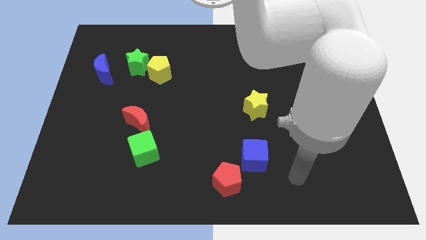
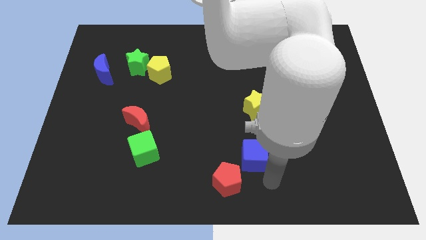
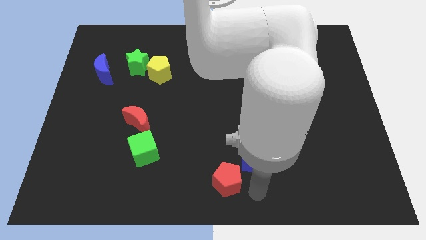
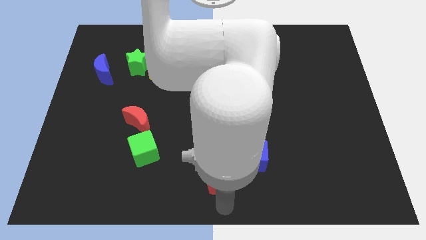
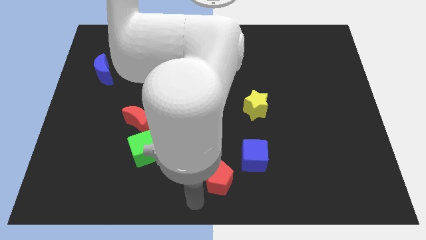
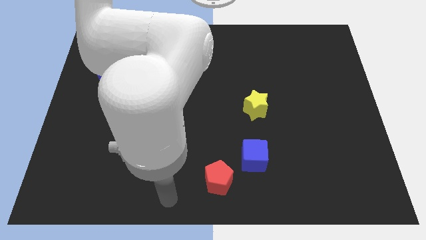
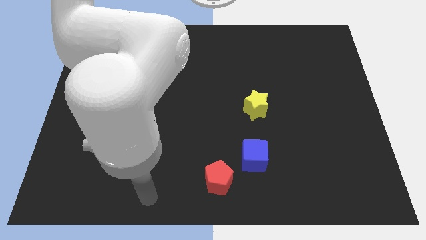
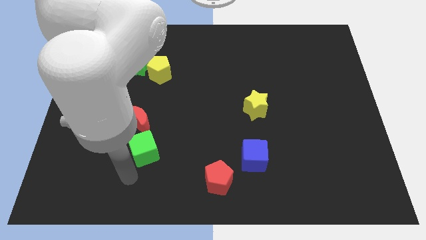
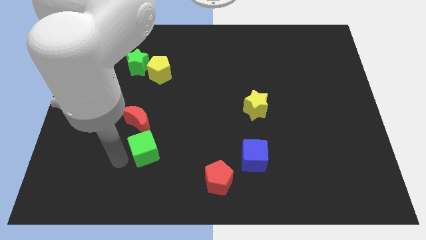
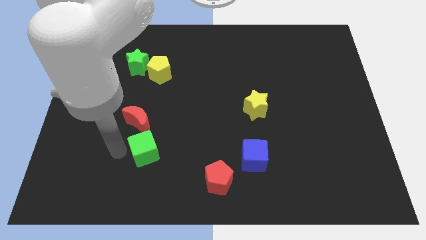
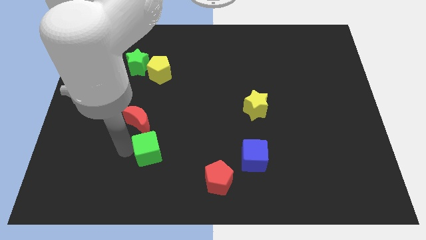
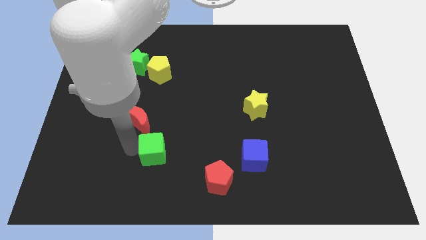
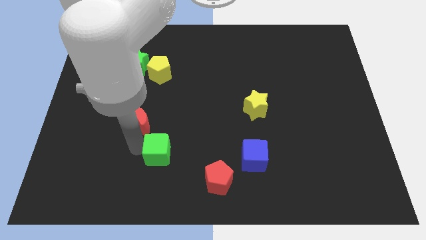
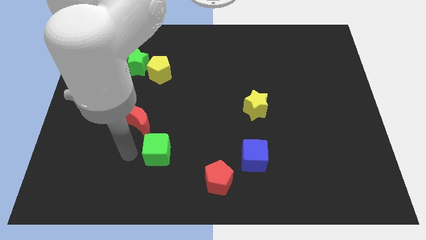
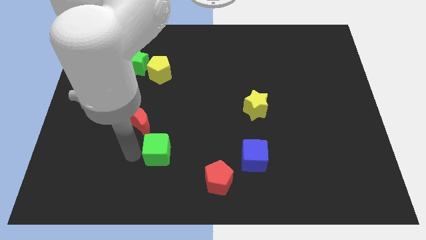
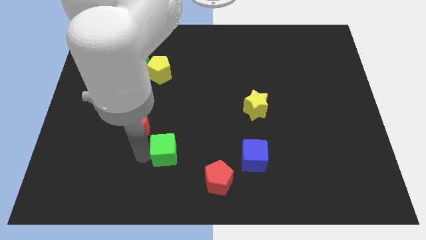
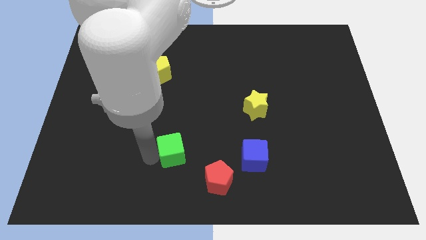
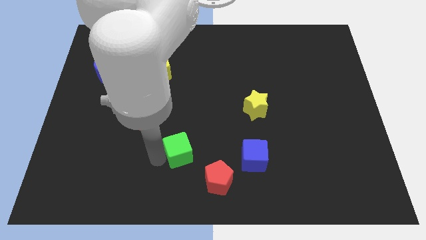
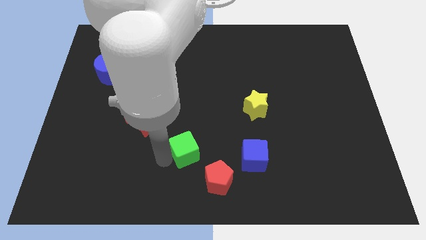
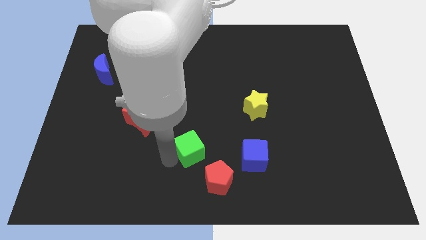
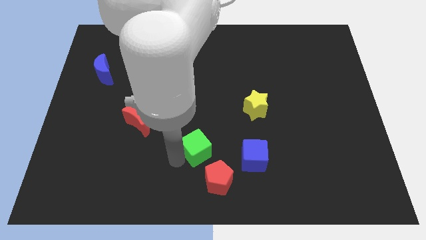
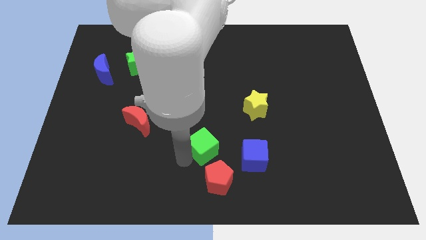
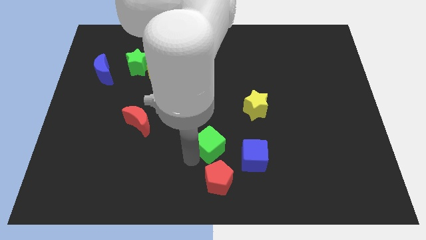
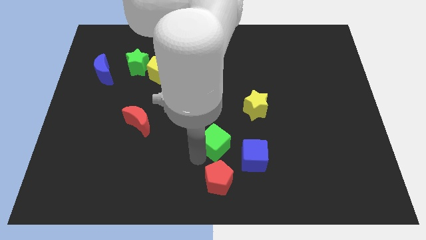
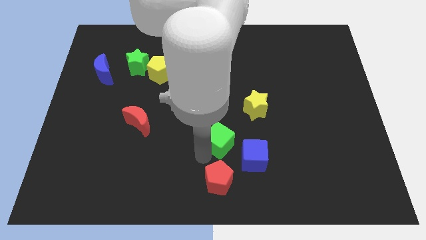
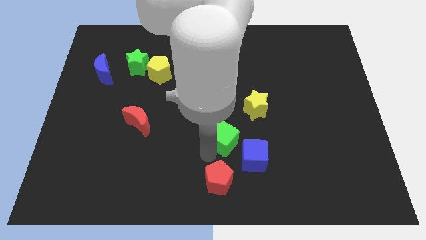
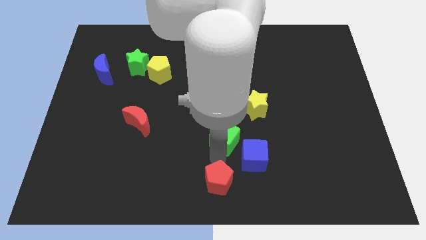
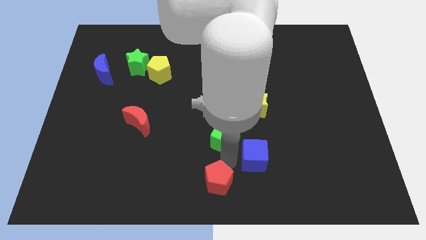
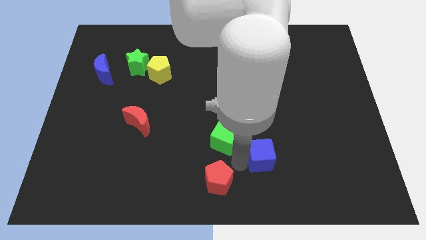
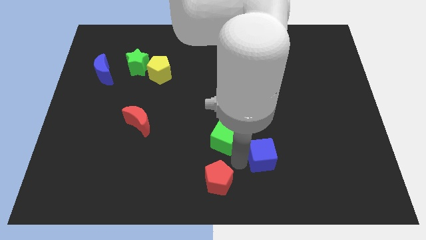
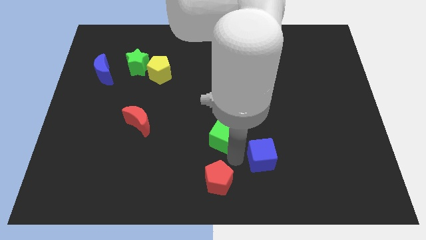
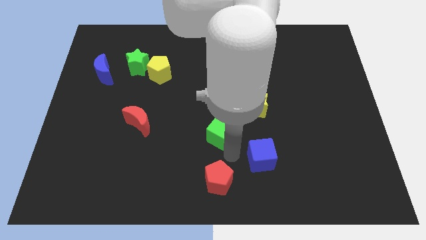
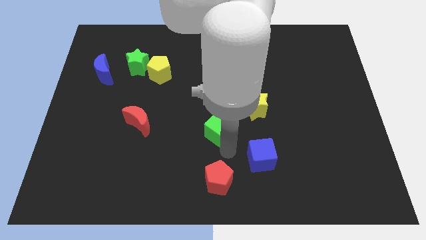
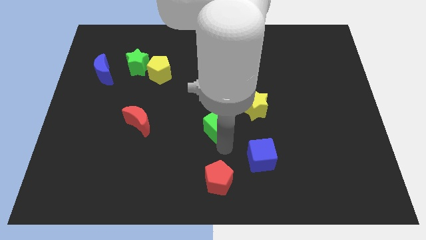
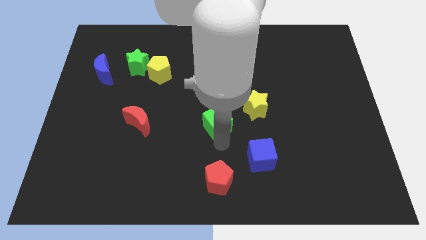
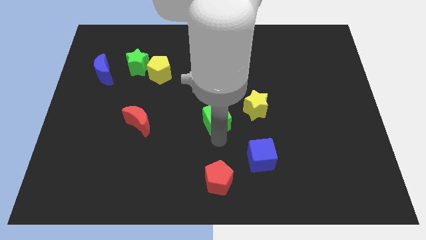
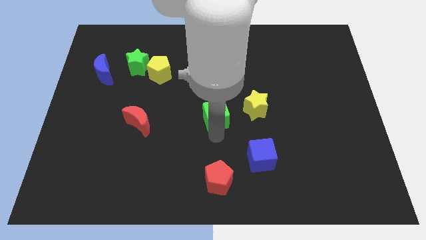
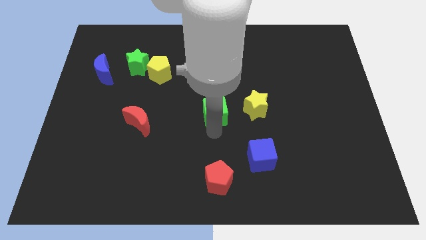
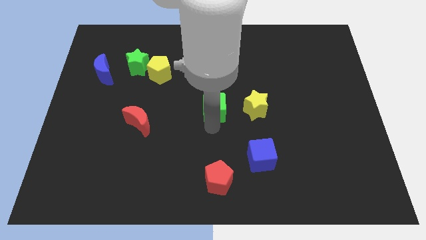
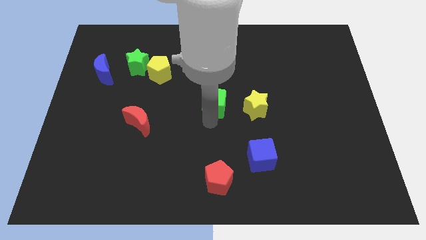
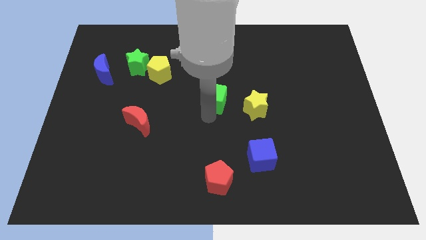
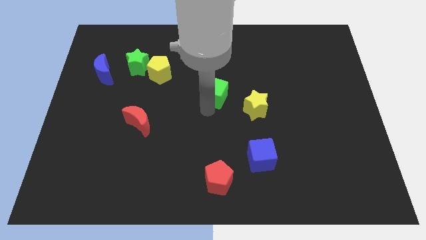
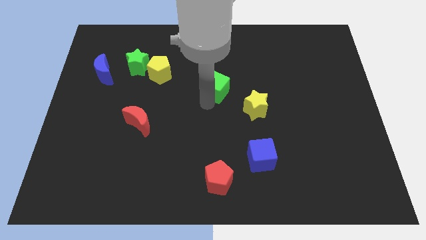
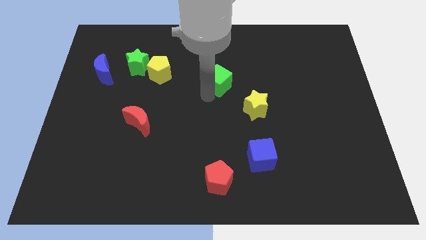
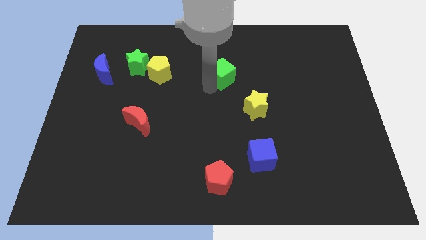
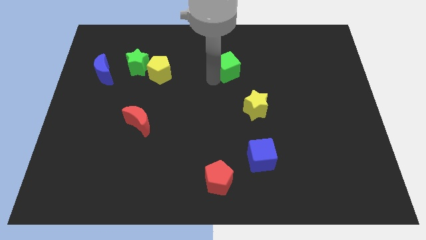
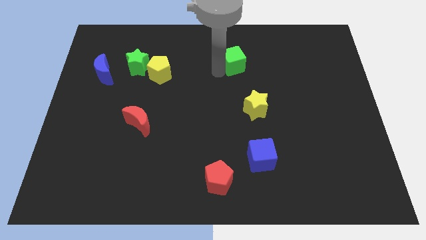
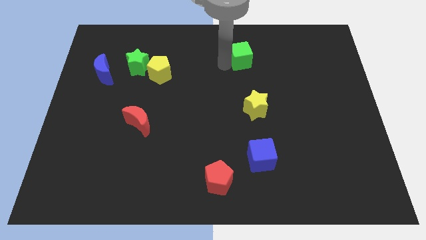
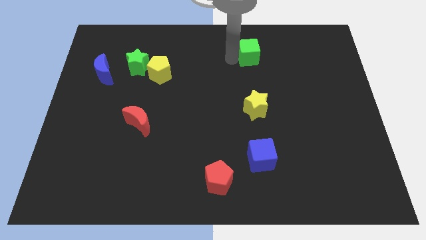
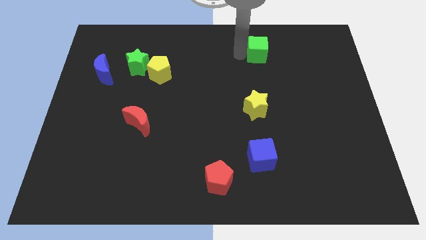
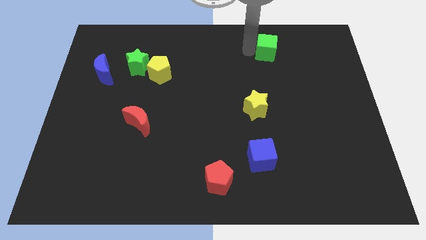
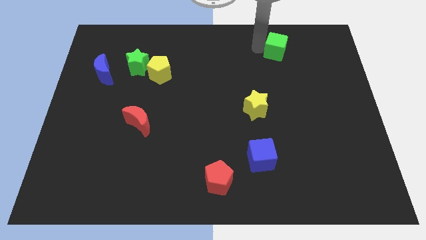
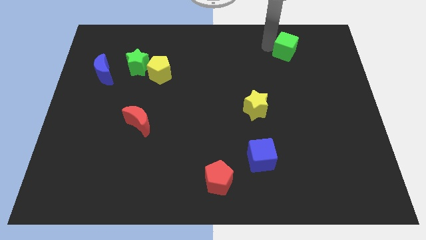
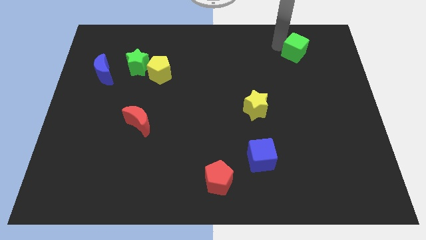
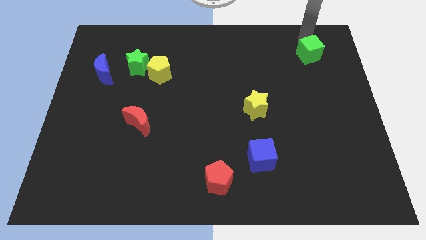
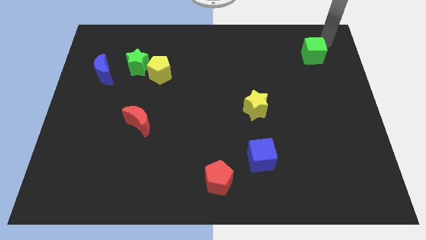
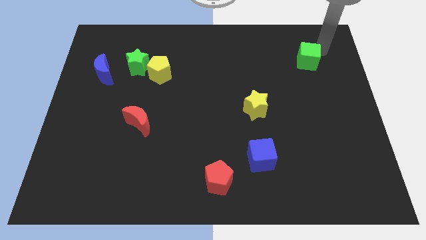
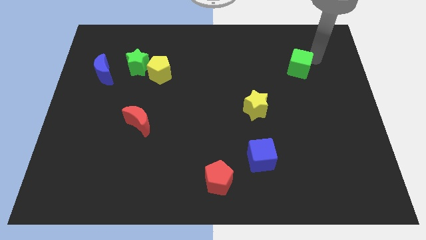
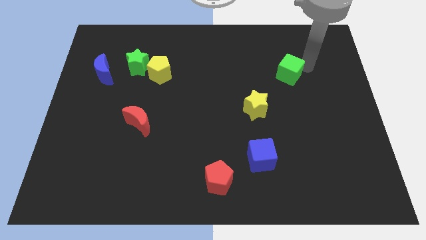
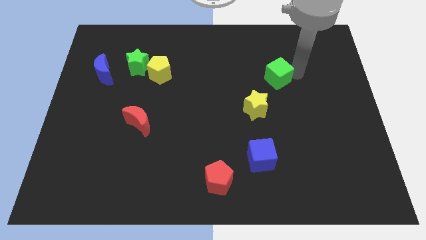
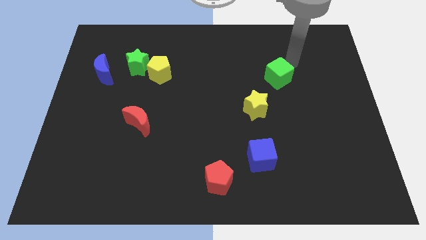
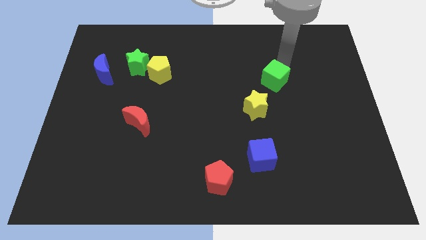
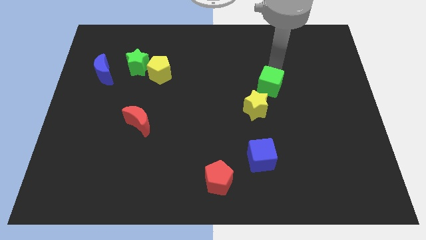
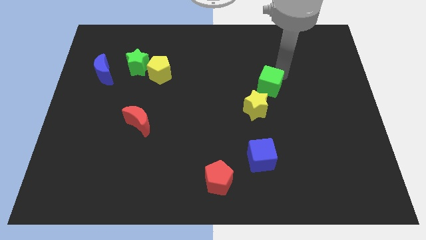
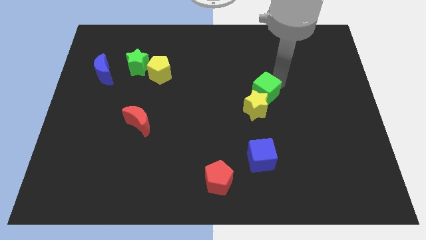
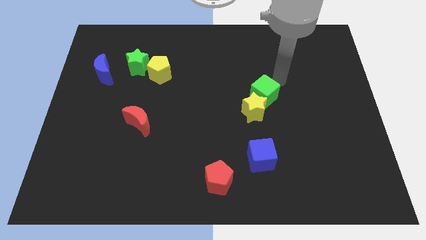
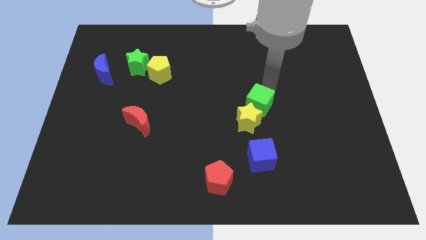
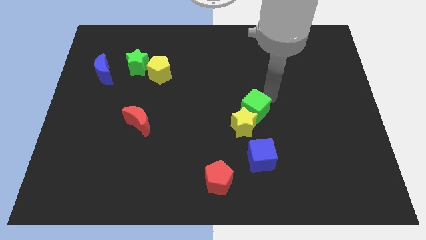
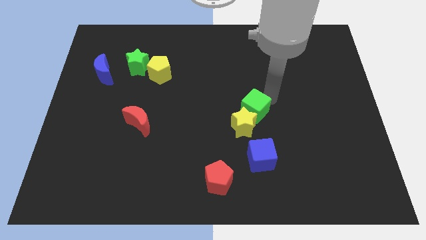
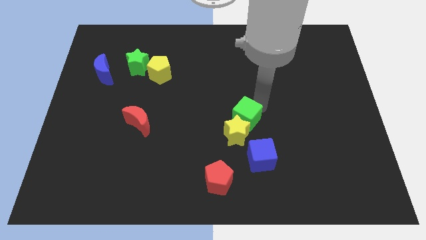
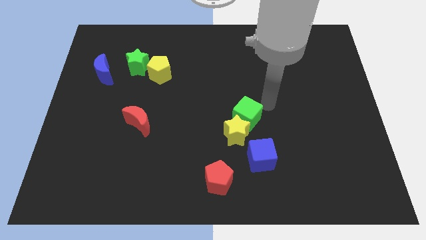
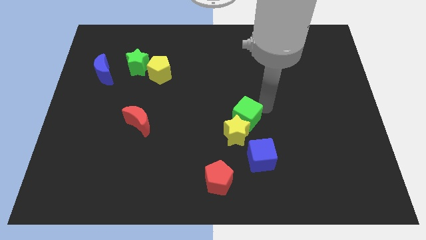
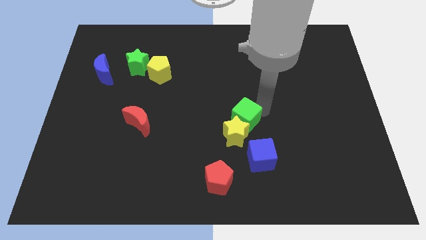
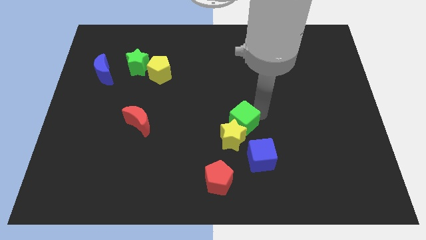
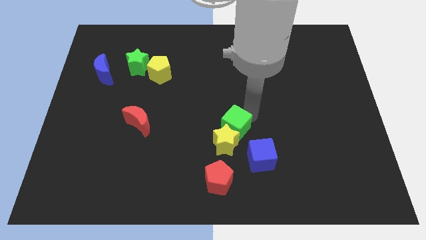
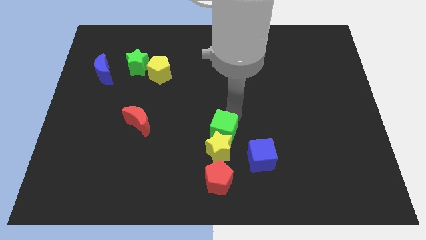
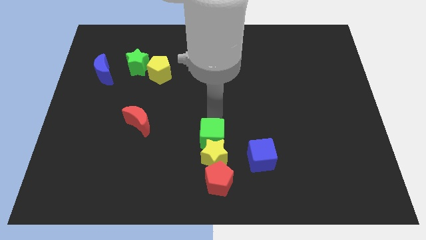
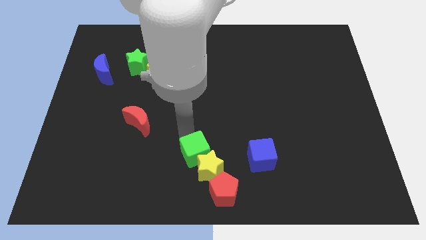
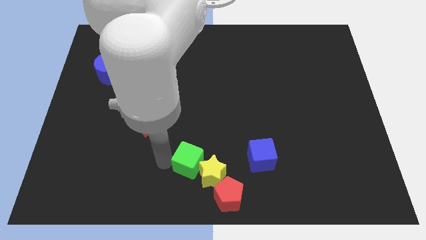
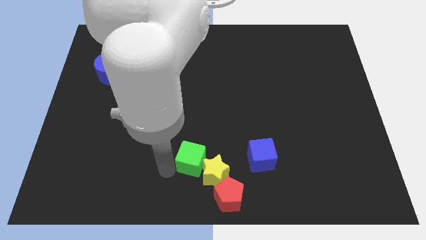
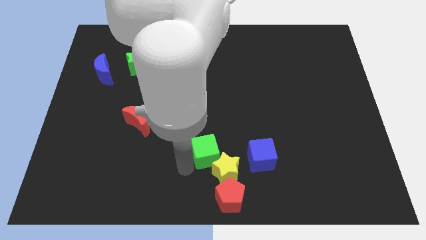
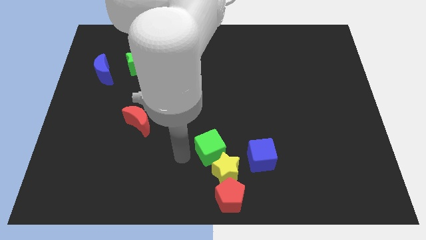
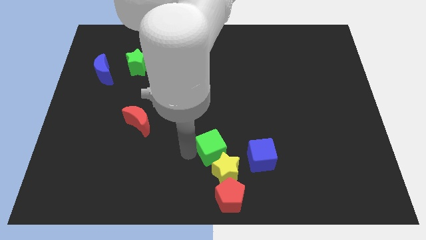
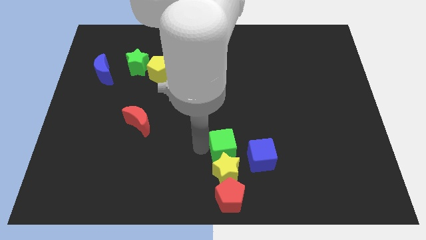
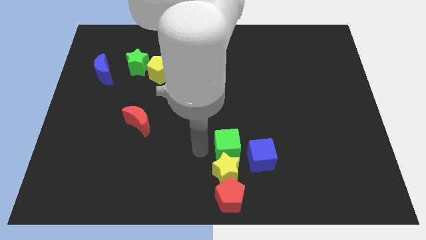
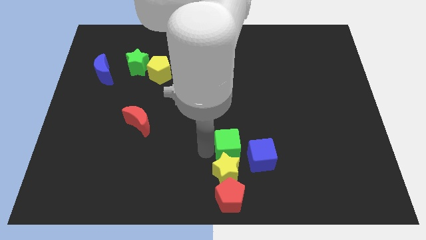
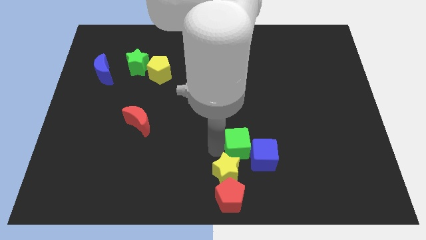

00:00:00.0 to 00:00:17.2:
push the green cube to the right
